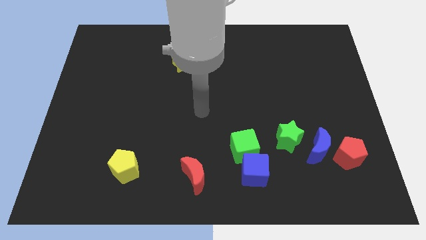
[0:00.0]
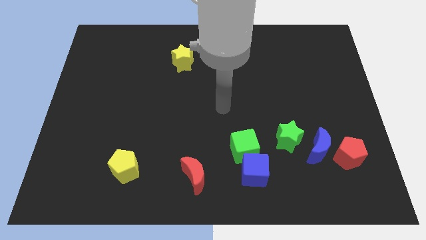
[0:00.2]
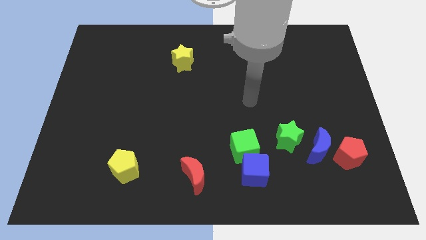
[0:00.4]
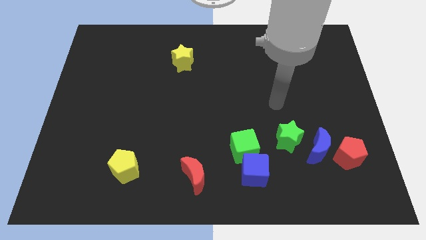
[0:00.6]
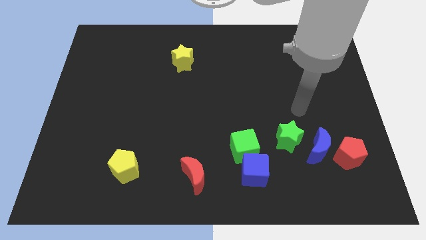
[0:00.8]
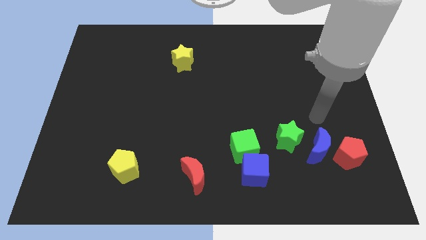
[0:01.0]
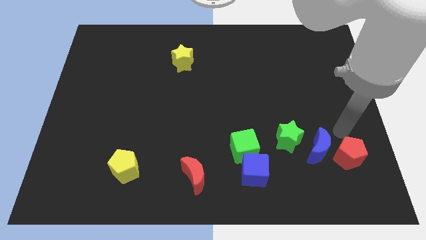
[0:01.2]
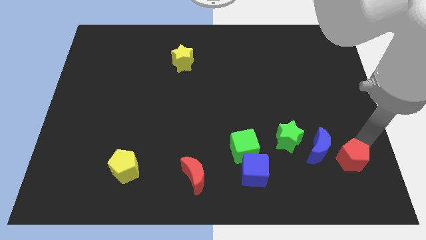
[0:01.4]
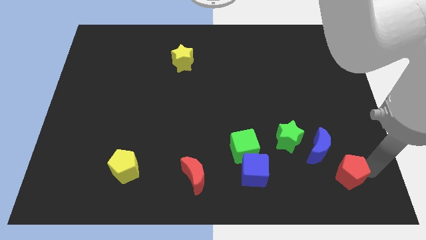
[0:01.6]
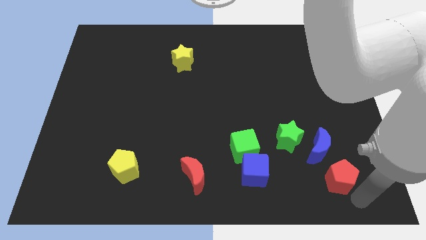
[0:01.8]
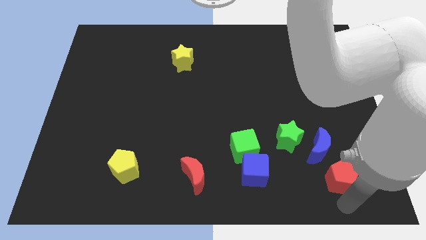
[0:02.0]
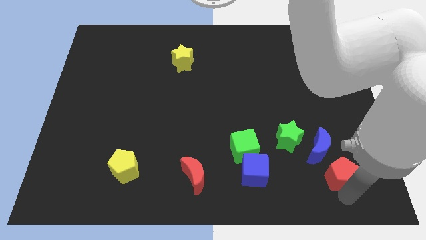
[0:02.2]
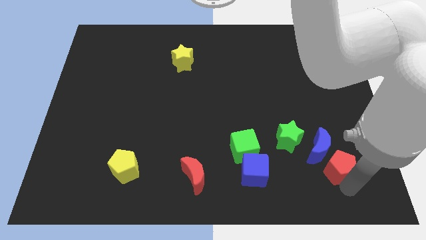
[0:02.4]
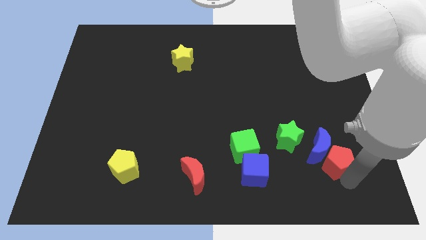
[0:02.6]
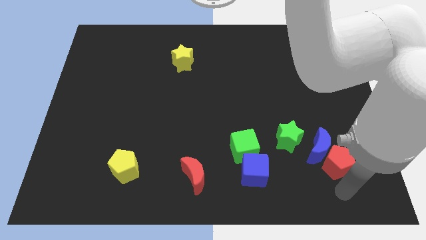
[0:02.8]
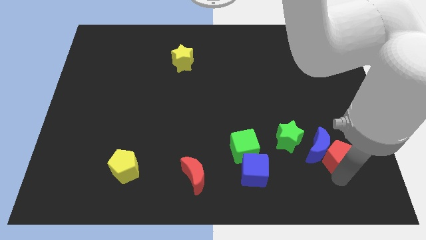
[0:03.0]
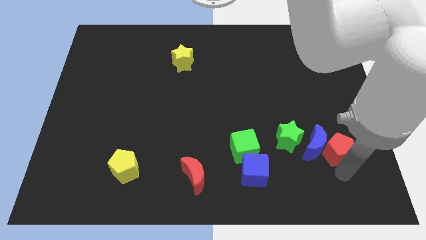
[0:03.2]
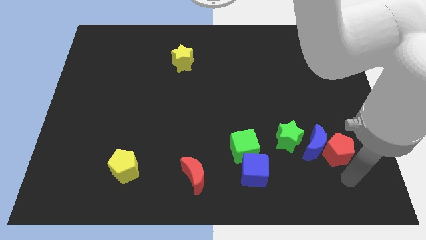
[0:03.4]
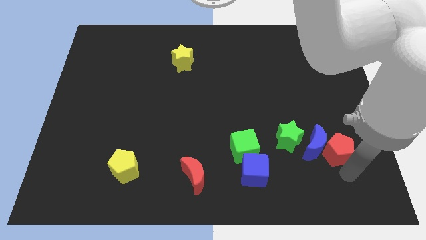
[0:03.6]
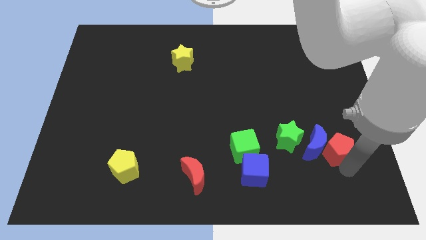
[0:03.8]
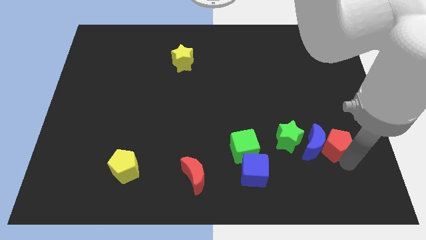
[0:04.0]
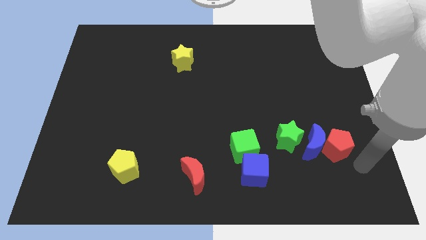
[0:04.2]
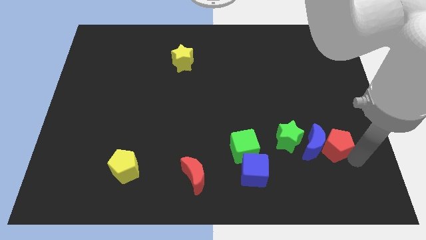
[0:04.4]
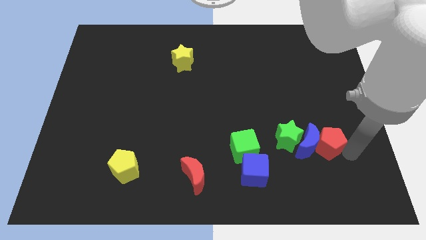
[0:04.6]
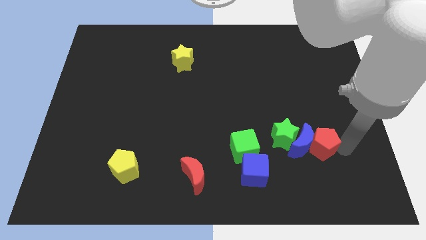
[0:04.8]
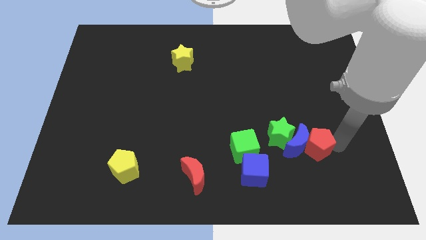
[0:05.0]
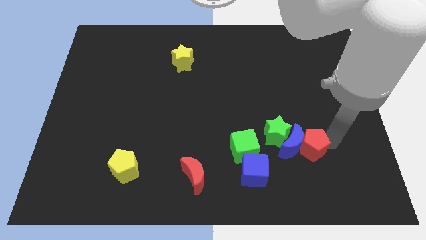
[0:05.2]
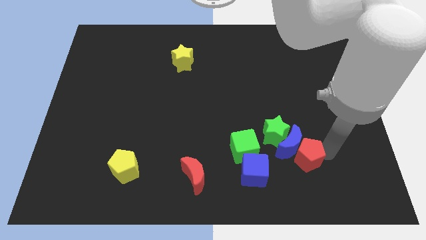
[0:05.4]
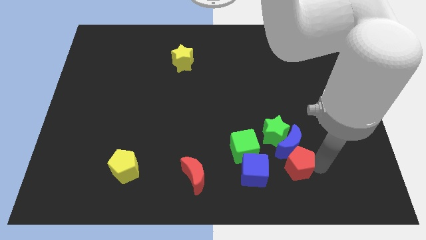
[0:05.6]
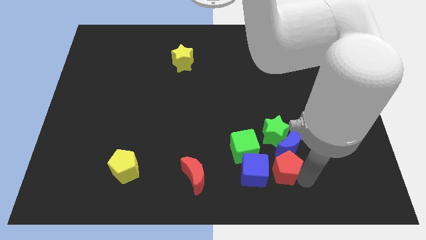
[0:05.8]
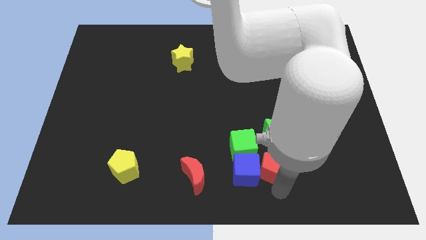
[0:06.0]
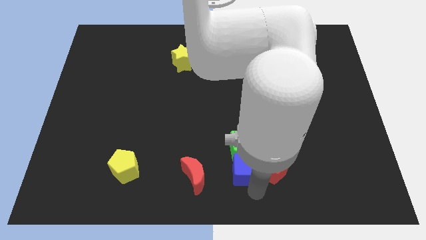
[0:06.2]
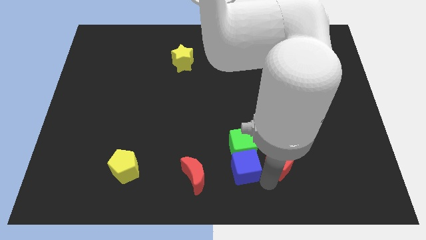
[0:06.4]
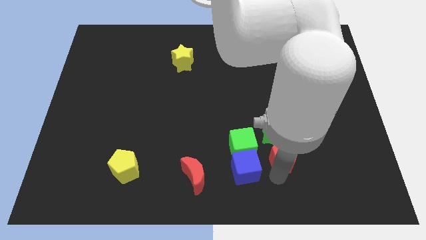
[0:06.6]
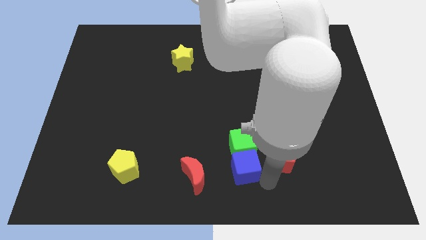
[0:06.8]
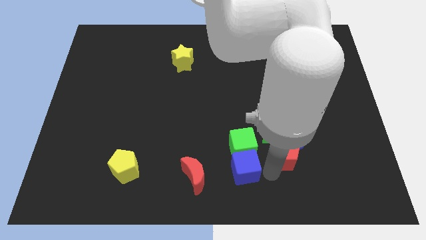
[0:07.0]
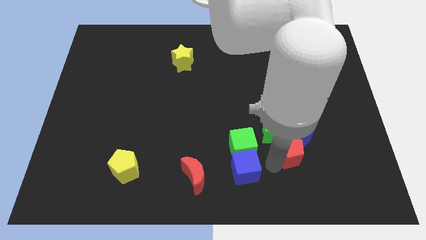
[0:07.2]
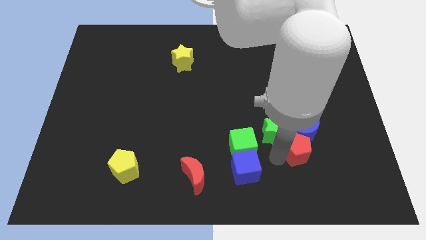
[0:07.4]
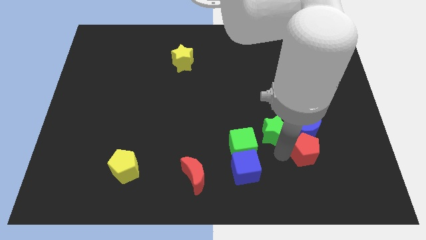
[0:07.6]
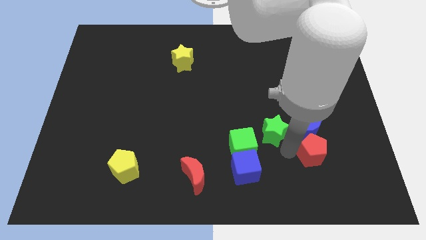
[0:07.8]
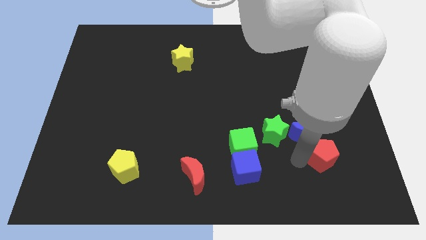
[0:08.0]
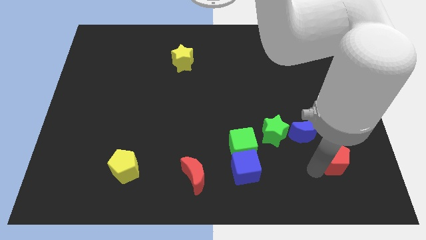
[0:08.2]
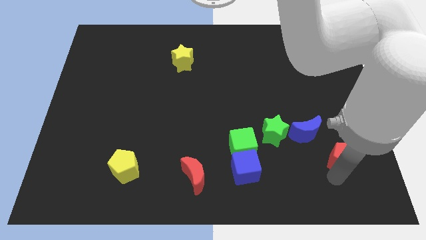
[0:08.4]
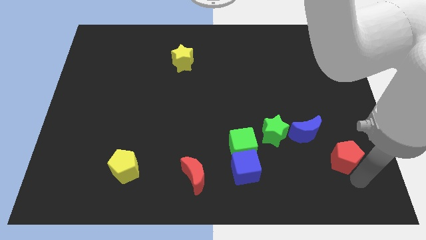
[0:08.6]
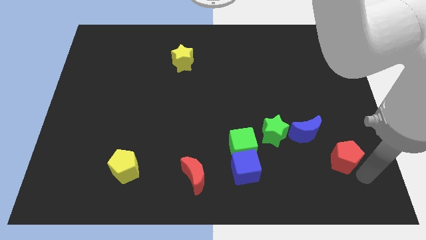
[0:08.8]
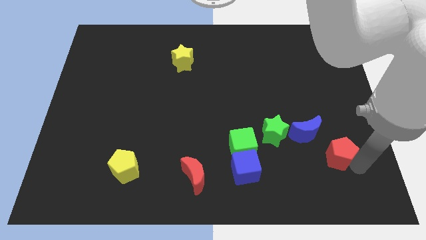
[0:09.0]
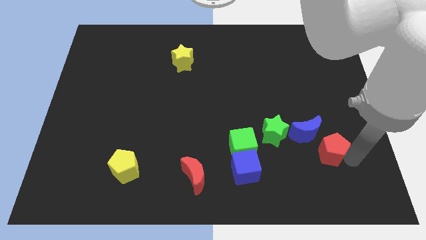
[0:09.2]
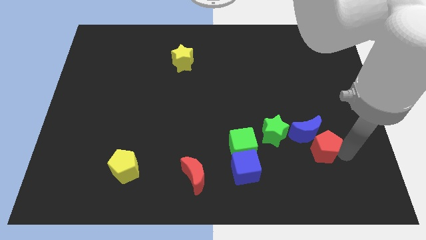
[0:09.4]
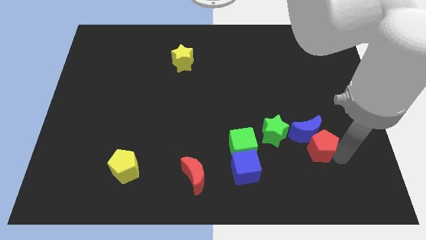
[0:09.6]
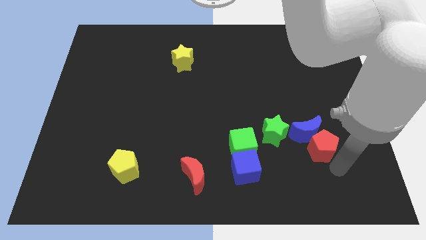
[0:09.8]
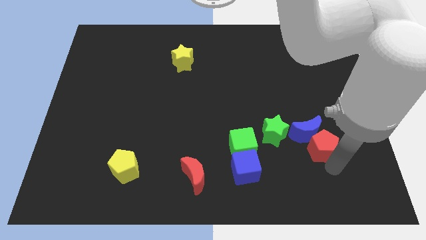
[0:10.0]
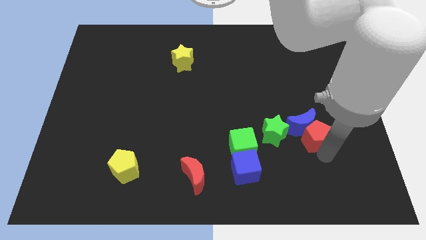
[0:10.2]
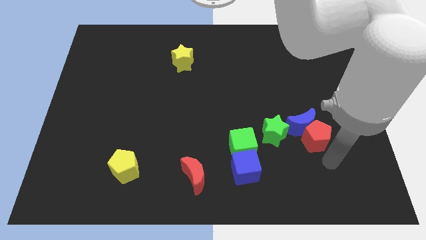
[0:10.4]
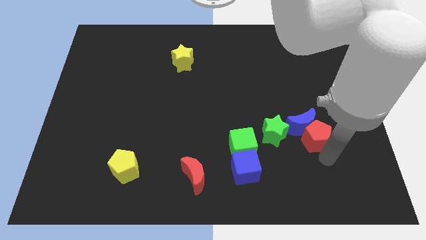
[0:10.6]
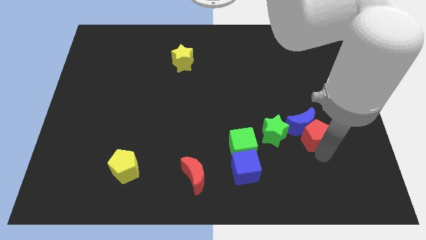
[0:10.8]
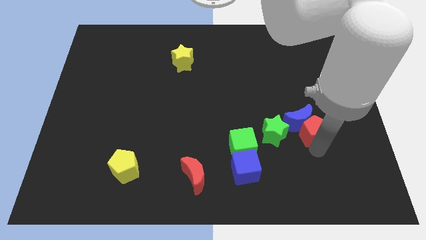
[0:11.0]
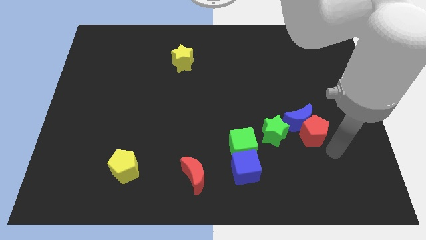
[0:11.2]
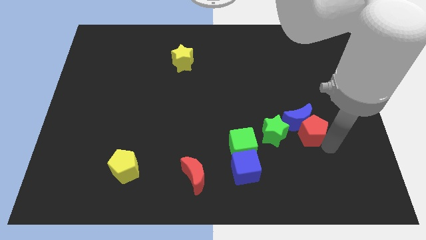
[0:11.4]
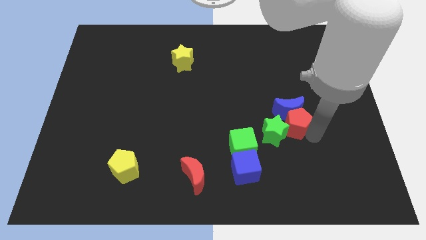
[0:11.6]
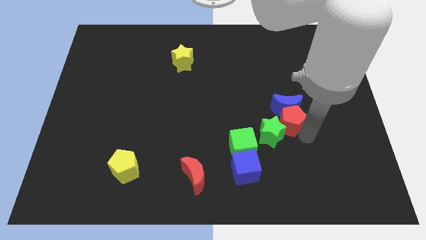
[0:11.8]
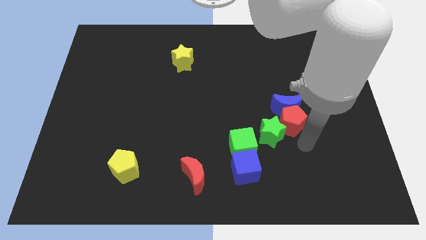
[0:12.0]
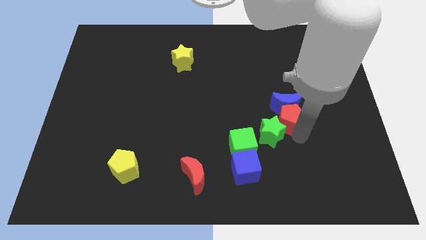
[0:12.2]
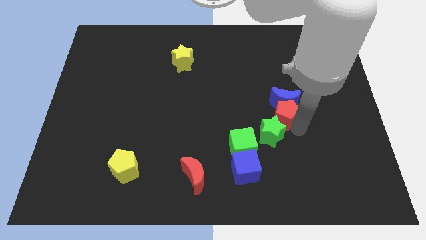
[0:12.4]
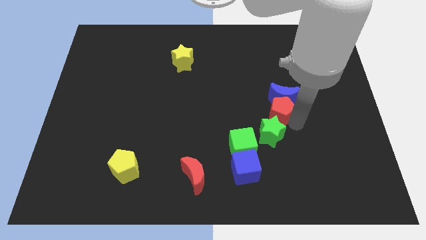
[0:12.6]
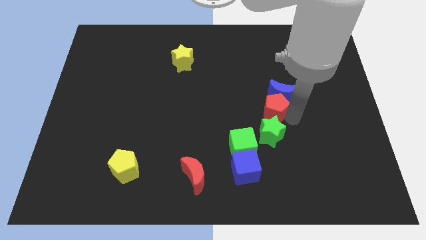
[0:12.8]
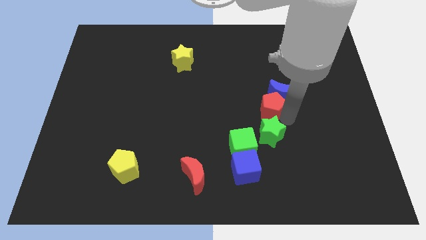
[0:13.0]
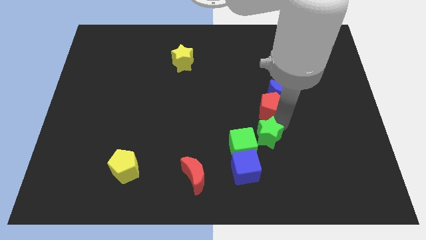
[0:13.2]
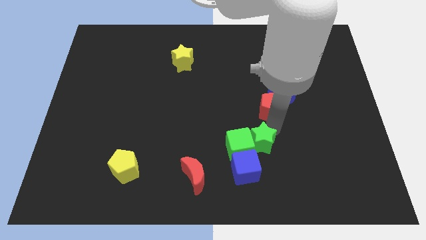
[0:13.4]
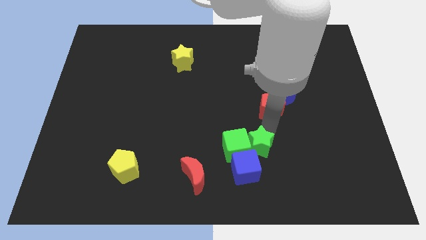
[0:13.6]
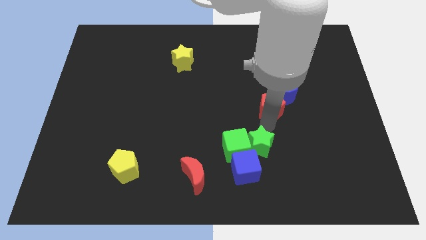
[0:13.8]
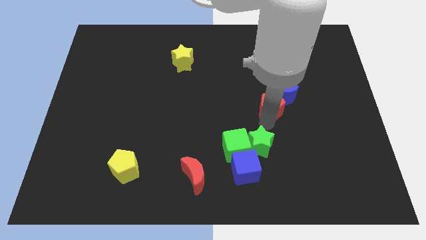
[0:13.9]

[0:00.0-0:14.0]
push the red pentagon up and then to the left

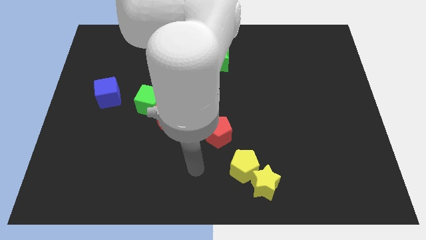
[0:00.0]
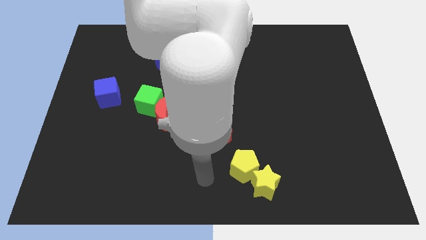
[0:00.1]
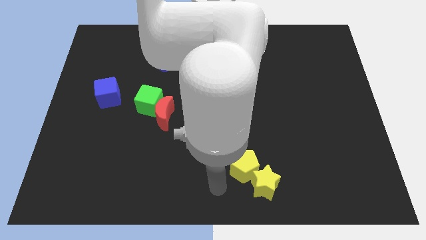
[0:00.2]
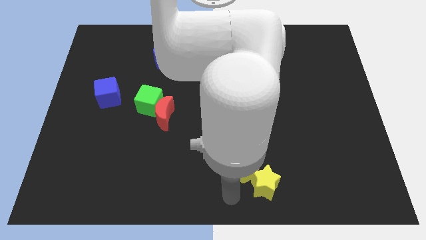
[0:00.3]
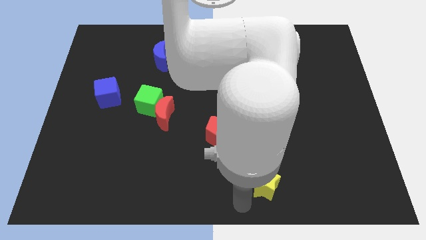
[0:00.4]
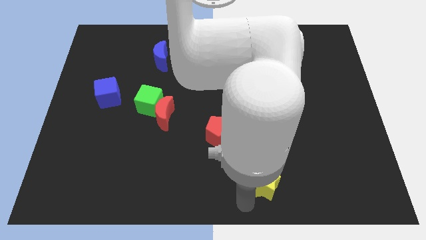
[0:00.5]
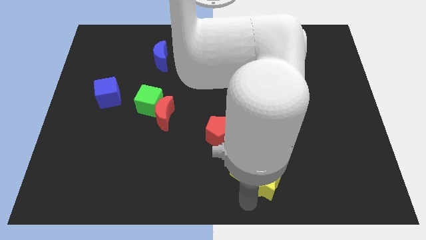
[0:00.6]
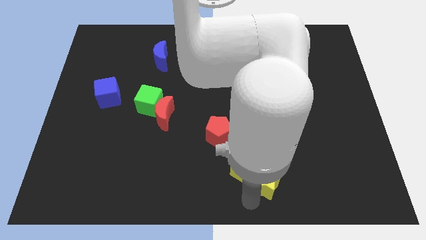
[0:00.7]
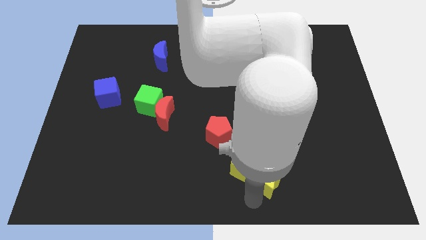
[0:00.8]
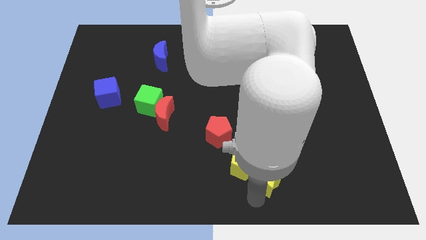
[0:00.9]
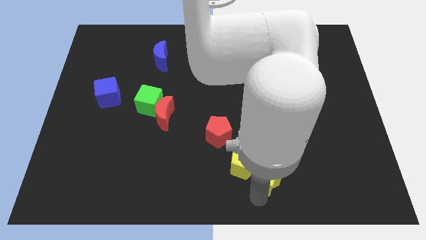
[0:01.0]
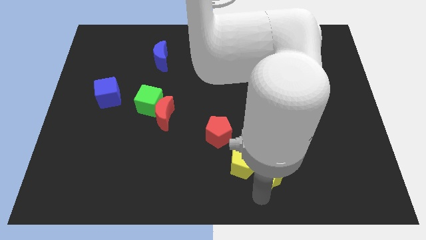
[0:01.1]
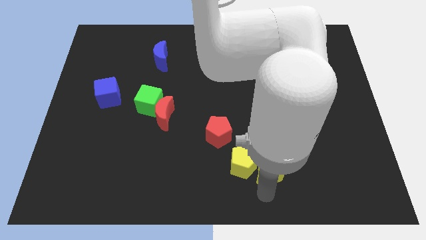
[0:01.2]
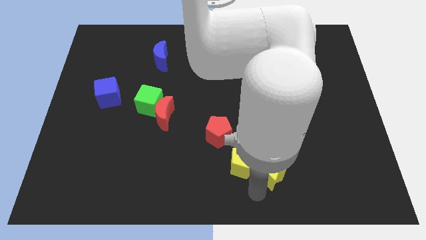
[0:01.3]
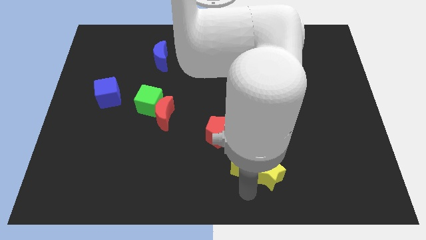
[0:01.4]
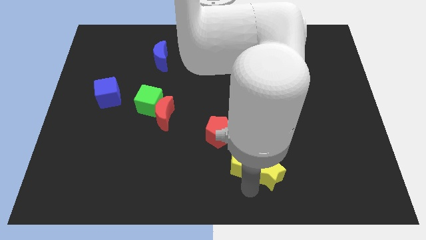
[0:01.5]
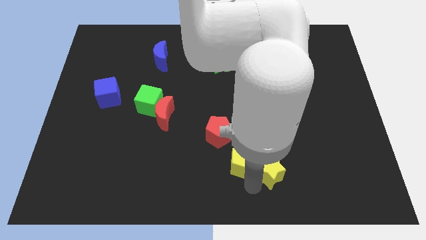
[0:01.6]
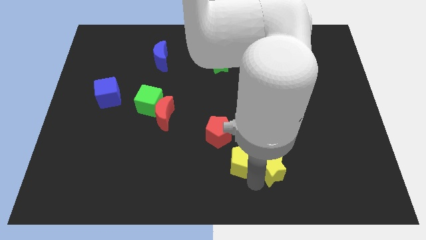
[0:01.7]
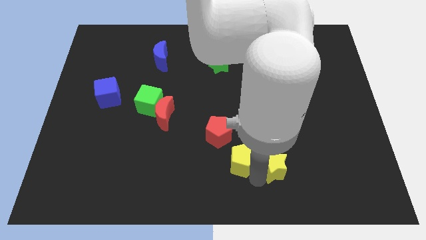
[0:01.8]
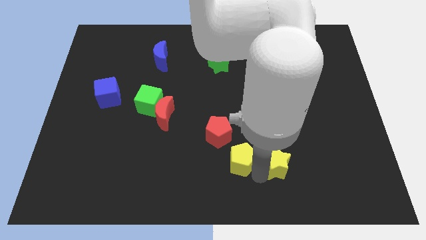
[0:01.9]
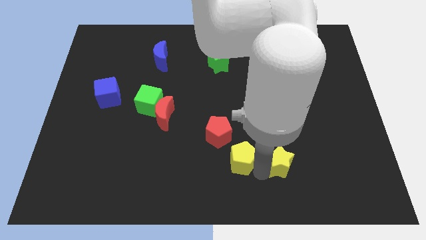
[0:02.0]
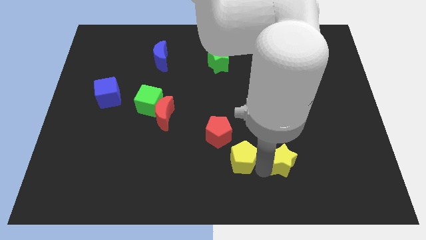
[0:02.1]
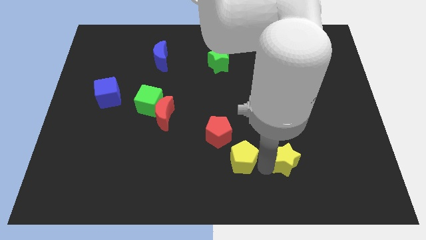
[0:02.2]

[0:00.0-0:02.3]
push the yellow star up and to the right a bit
